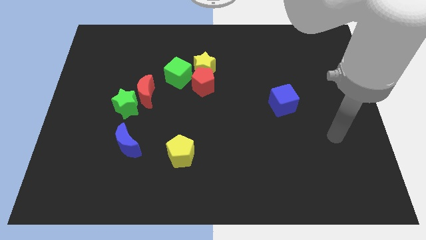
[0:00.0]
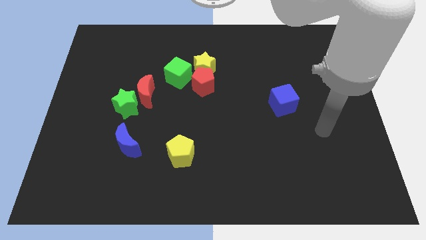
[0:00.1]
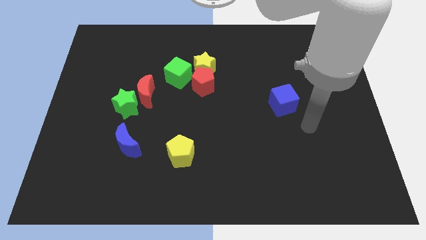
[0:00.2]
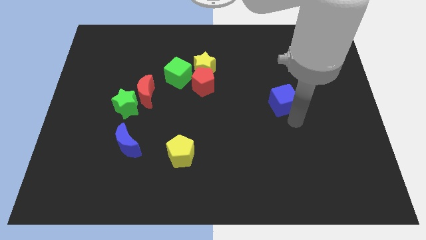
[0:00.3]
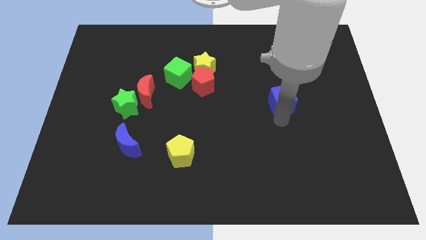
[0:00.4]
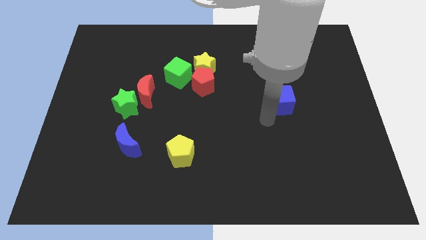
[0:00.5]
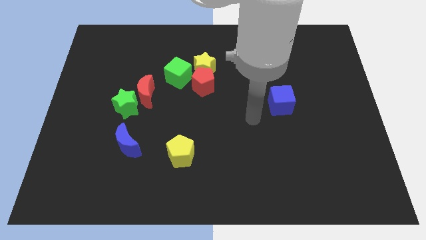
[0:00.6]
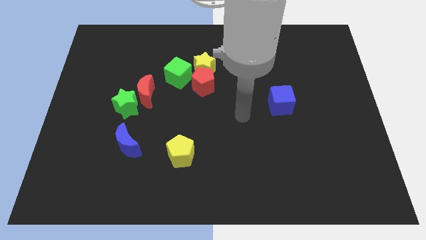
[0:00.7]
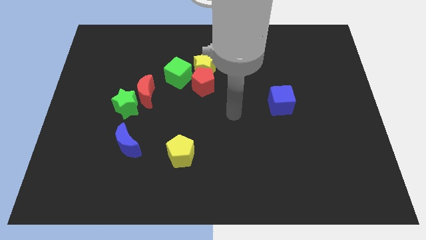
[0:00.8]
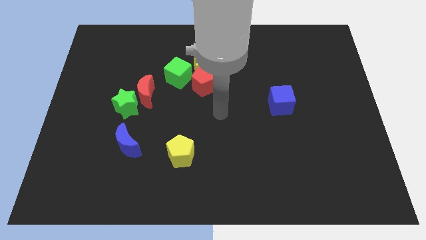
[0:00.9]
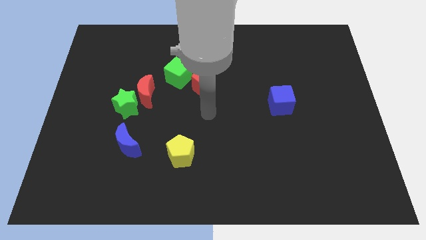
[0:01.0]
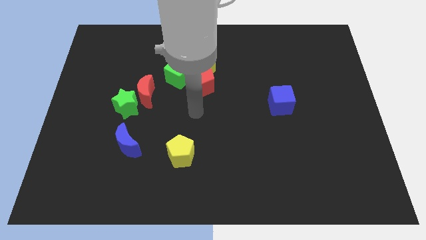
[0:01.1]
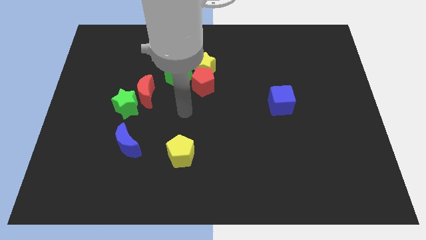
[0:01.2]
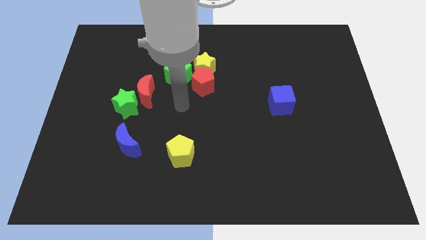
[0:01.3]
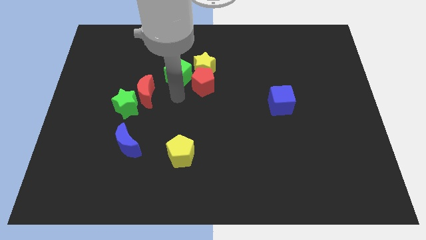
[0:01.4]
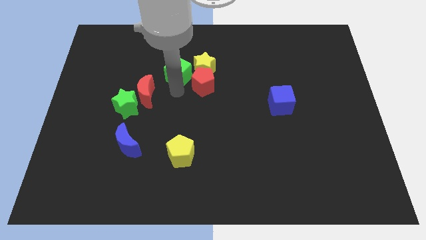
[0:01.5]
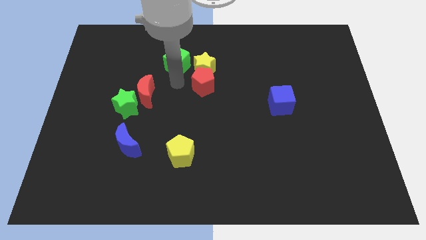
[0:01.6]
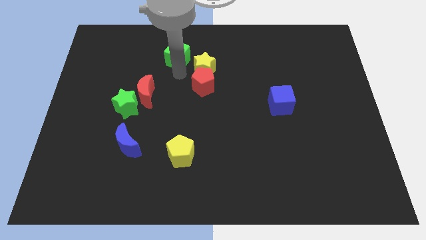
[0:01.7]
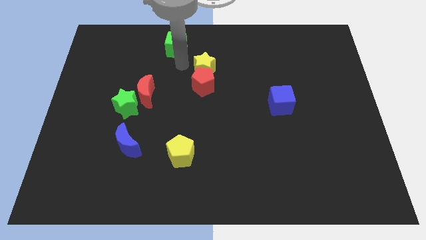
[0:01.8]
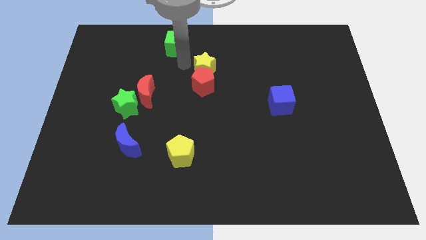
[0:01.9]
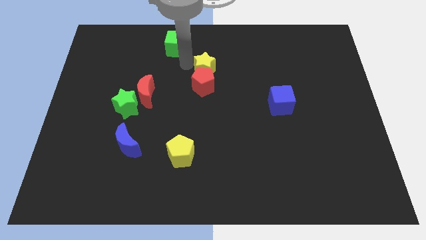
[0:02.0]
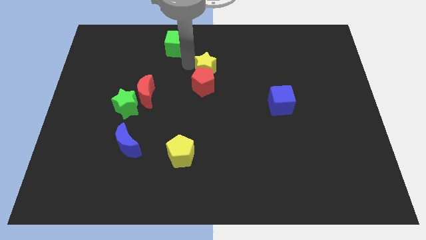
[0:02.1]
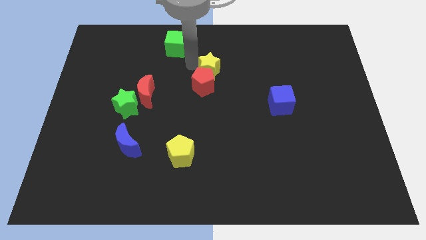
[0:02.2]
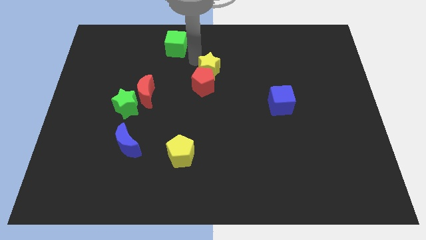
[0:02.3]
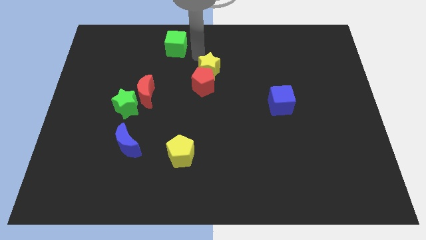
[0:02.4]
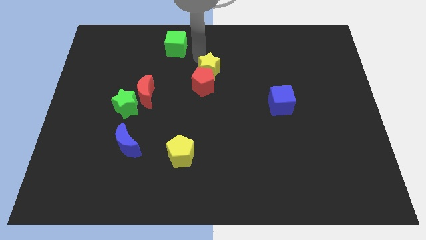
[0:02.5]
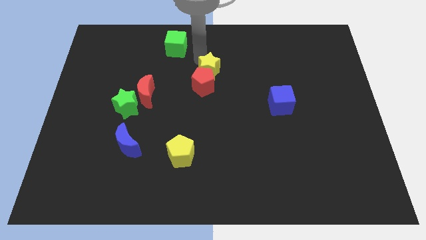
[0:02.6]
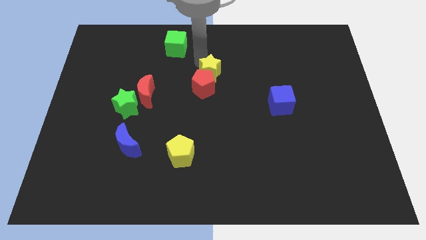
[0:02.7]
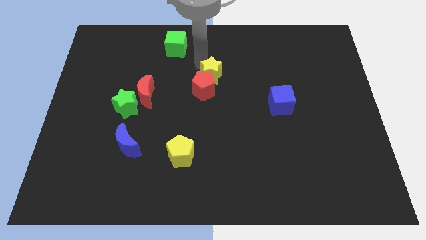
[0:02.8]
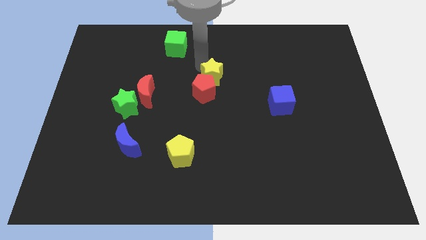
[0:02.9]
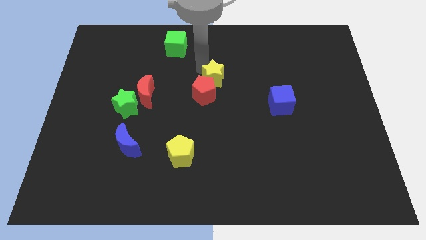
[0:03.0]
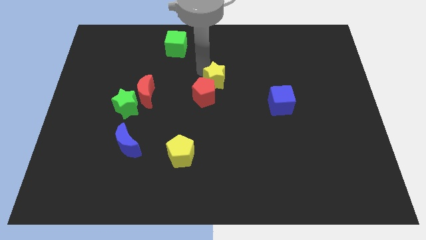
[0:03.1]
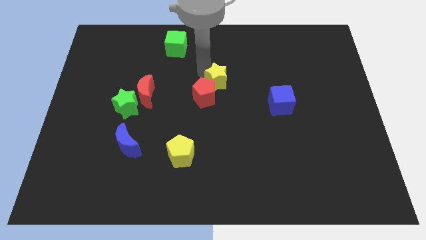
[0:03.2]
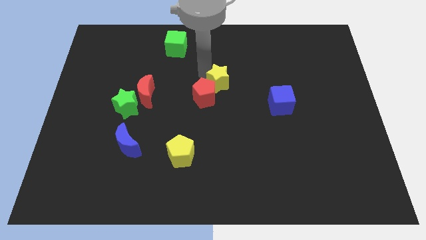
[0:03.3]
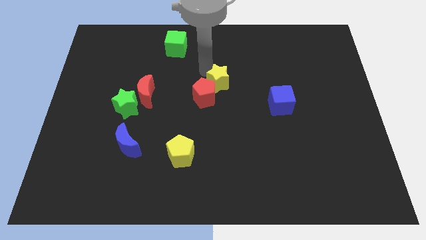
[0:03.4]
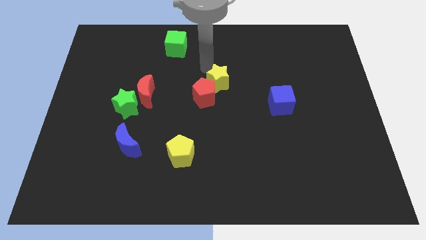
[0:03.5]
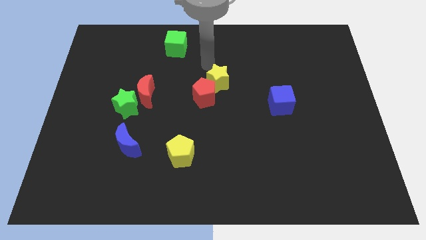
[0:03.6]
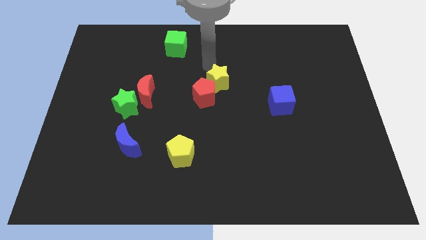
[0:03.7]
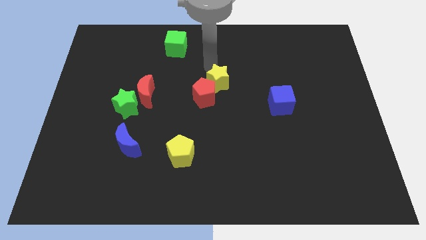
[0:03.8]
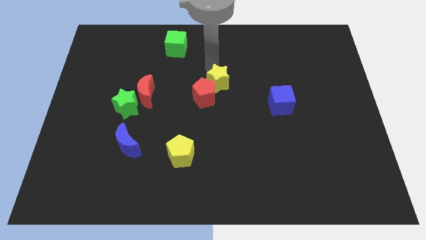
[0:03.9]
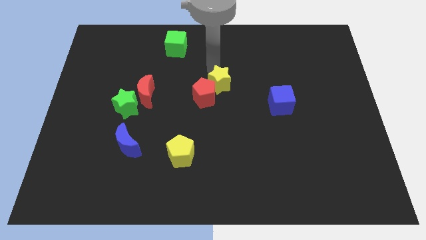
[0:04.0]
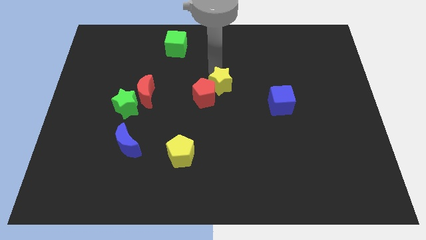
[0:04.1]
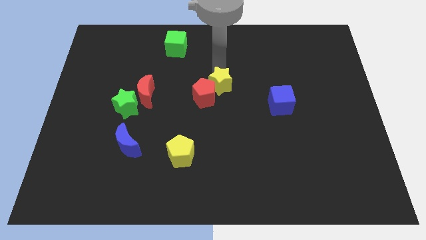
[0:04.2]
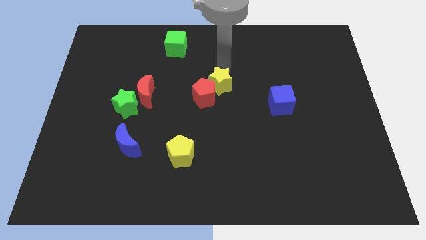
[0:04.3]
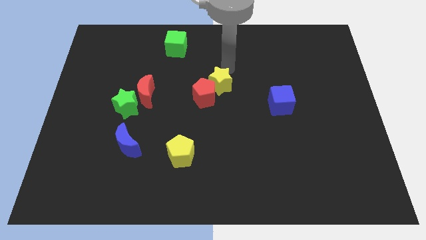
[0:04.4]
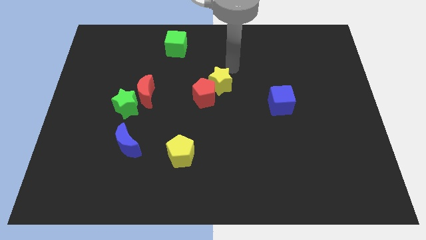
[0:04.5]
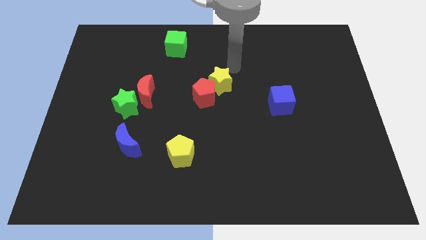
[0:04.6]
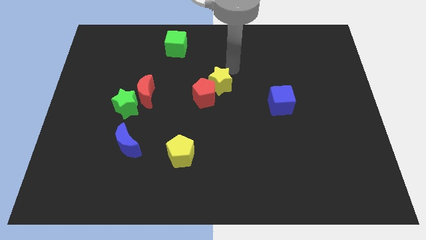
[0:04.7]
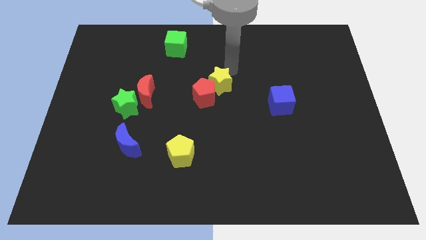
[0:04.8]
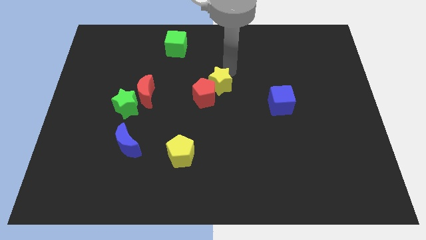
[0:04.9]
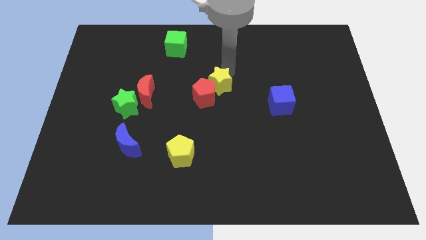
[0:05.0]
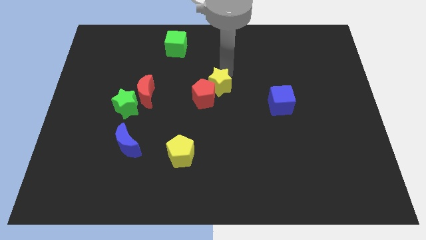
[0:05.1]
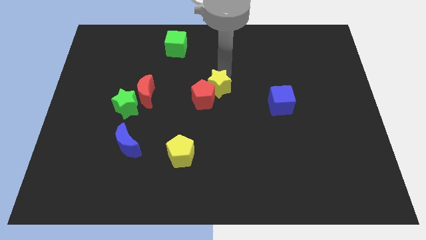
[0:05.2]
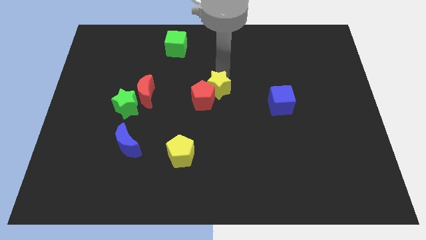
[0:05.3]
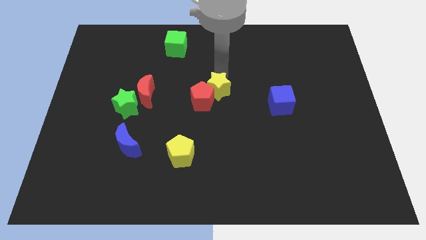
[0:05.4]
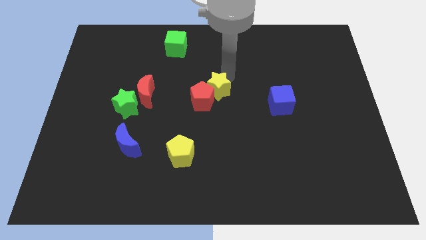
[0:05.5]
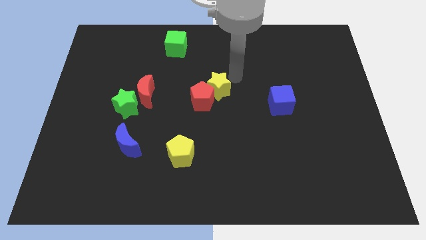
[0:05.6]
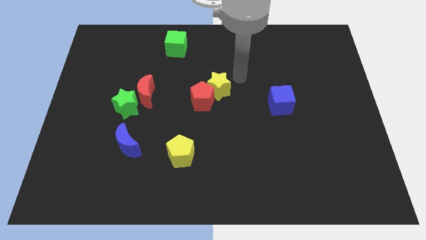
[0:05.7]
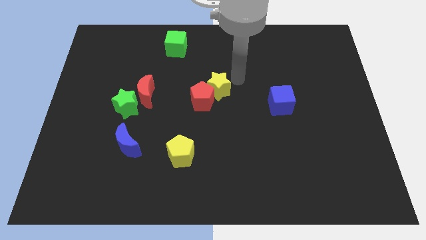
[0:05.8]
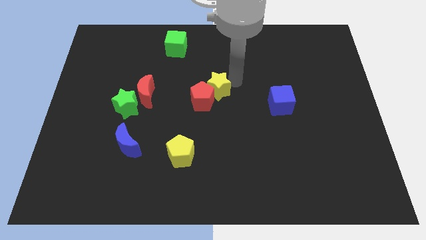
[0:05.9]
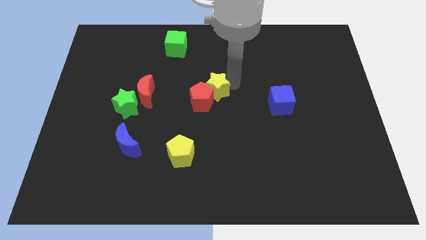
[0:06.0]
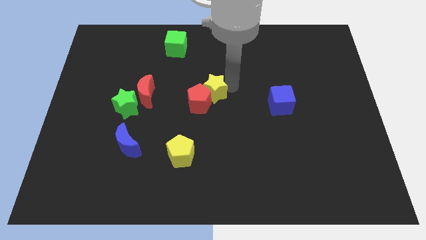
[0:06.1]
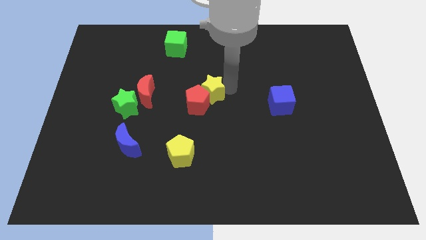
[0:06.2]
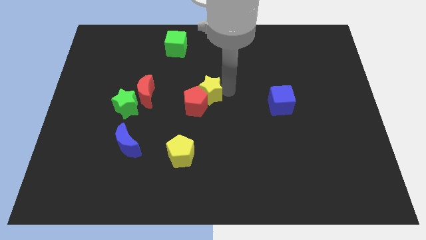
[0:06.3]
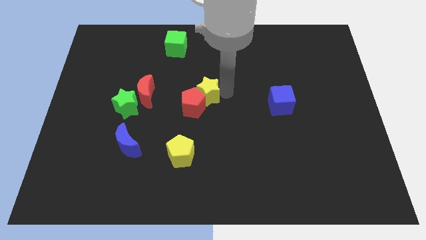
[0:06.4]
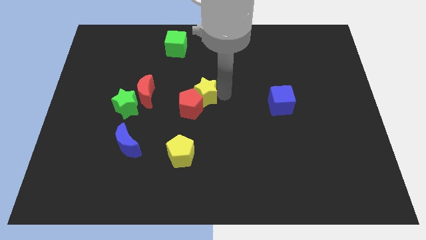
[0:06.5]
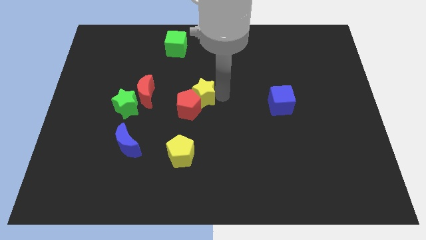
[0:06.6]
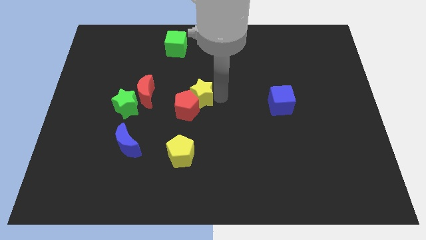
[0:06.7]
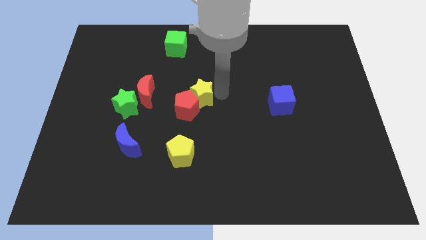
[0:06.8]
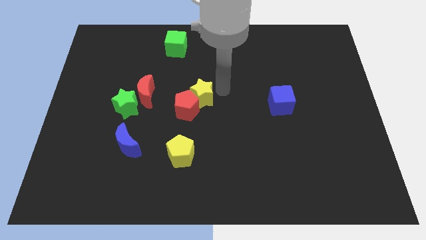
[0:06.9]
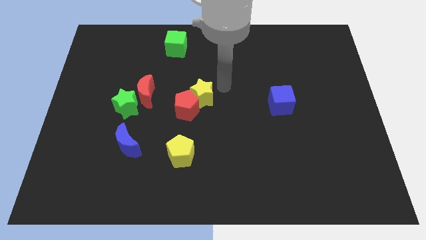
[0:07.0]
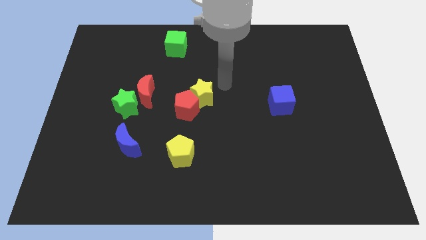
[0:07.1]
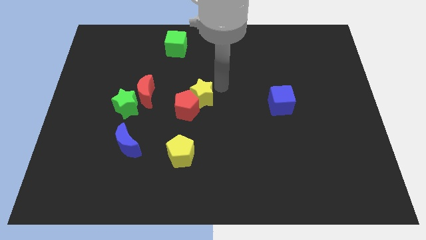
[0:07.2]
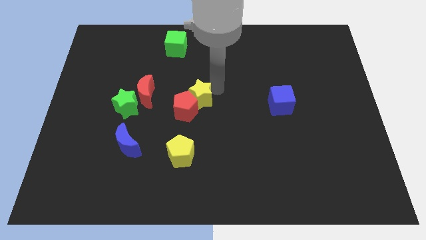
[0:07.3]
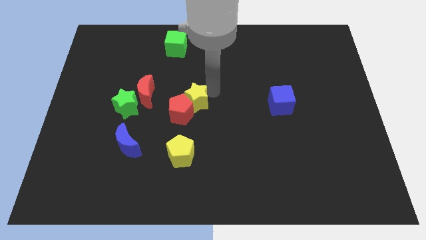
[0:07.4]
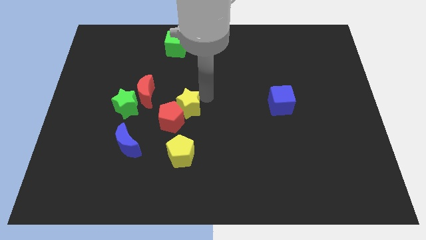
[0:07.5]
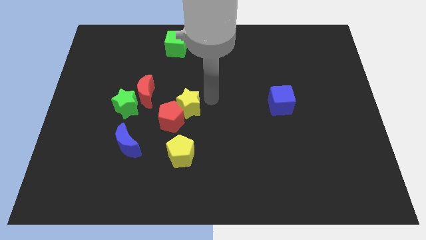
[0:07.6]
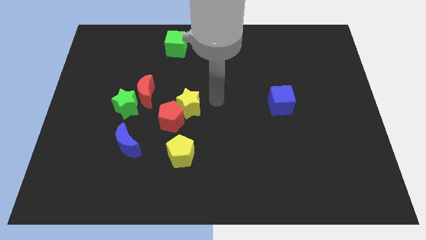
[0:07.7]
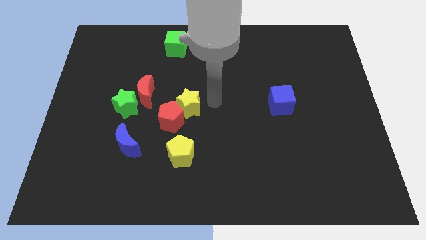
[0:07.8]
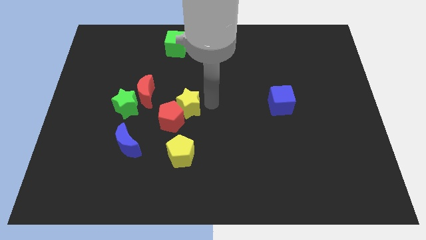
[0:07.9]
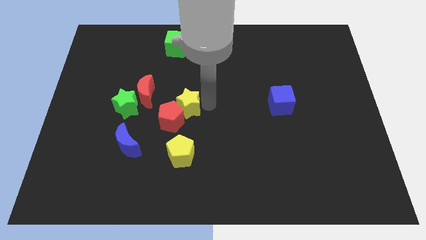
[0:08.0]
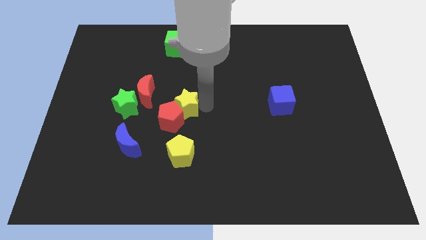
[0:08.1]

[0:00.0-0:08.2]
put the yellow star to the bottom right side of the red moon
